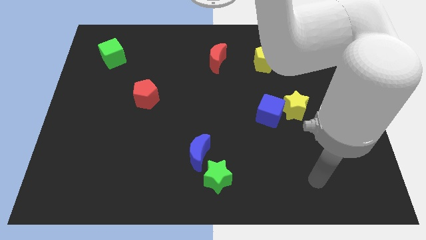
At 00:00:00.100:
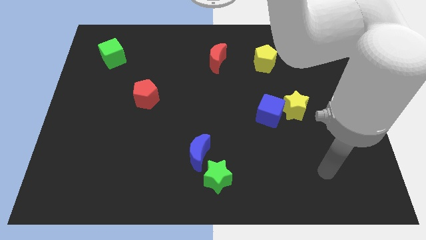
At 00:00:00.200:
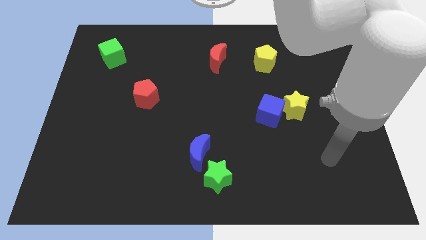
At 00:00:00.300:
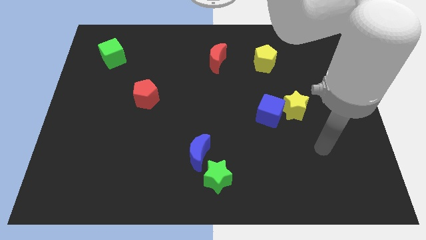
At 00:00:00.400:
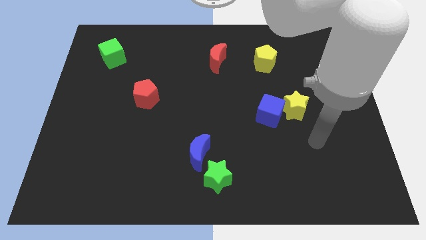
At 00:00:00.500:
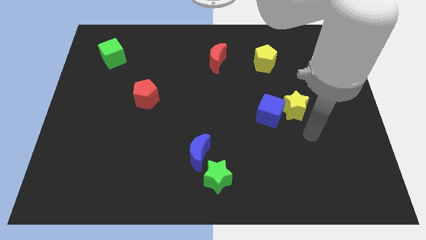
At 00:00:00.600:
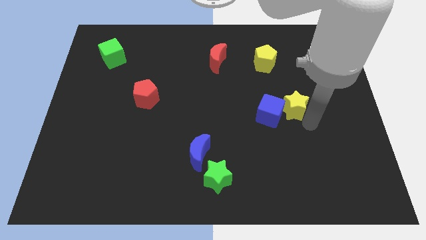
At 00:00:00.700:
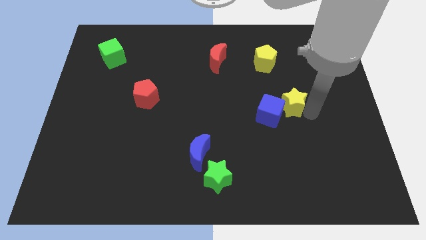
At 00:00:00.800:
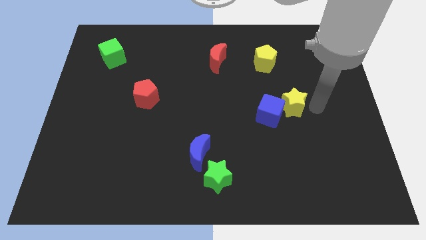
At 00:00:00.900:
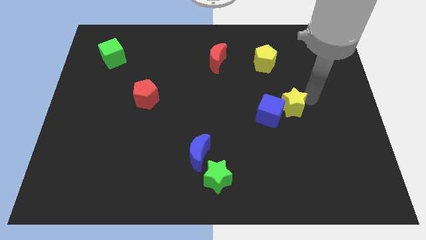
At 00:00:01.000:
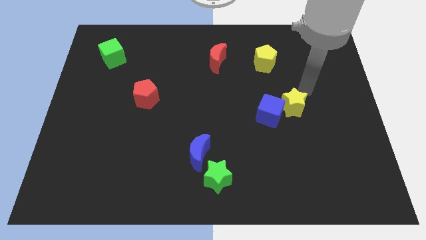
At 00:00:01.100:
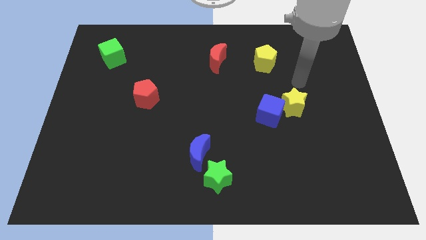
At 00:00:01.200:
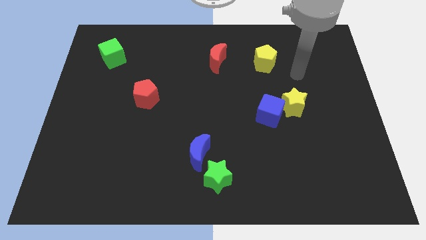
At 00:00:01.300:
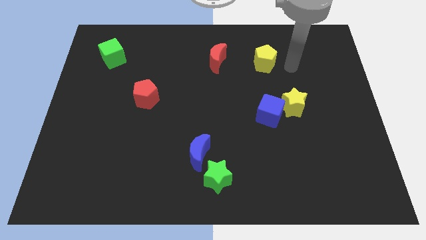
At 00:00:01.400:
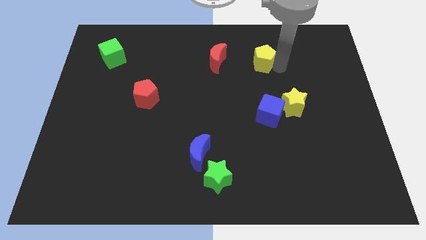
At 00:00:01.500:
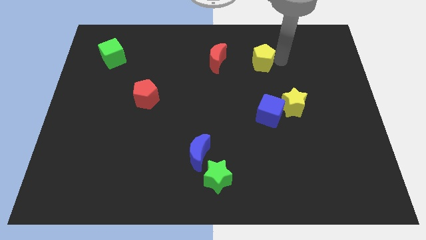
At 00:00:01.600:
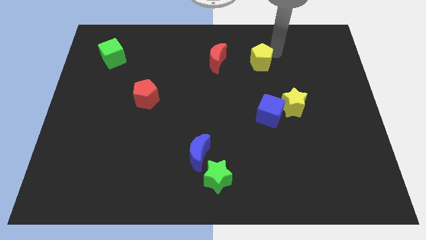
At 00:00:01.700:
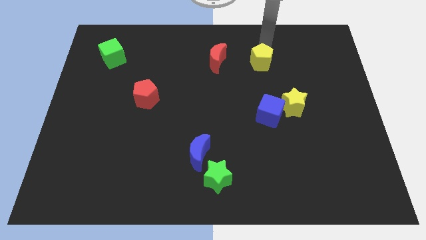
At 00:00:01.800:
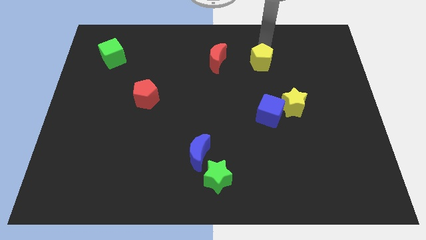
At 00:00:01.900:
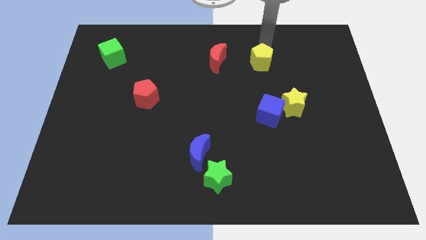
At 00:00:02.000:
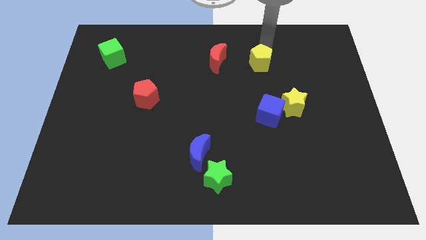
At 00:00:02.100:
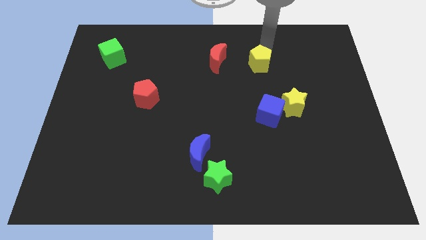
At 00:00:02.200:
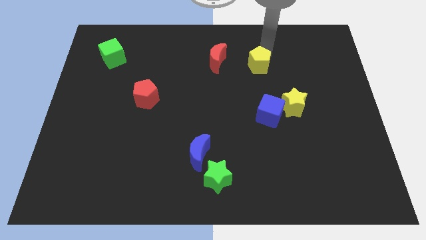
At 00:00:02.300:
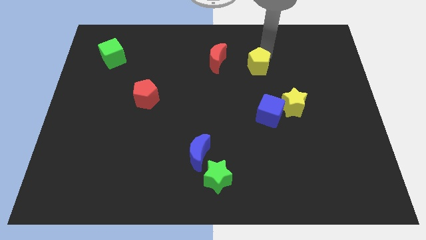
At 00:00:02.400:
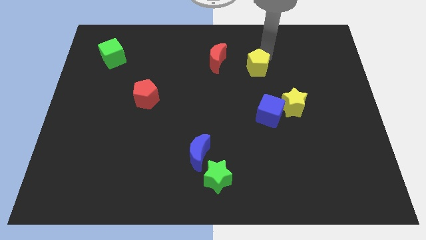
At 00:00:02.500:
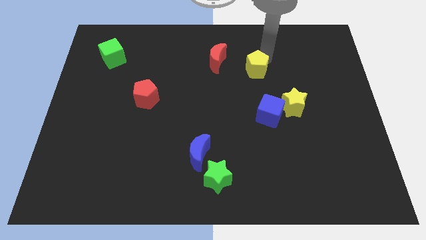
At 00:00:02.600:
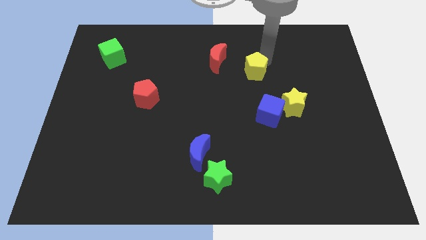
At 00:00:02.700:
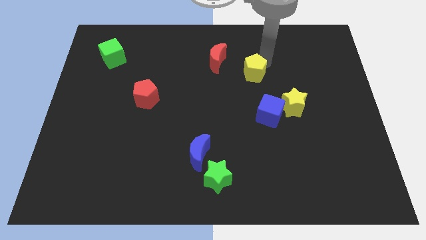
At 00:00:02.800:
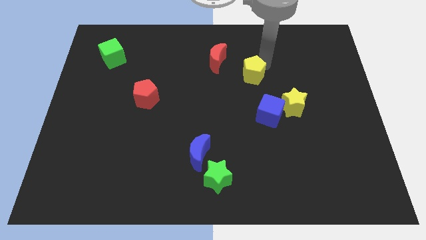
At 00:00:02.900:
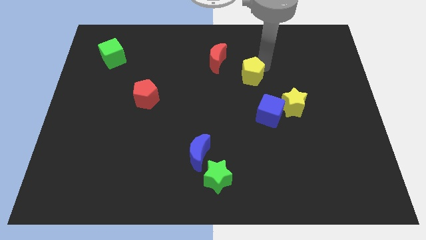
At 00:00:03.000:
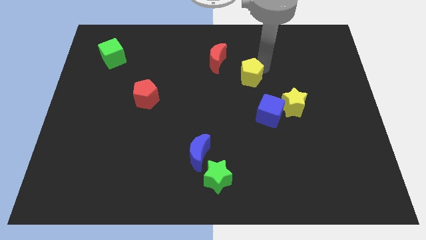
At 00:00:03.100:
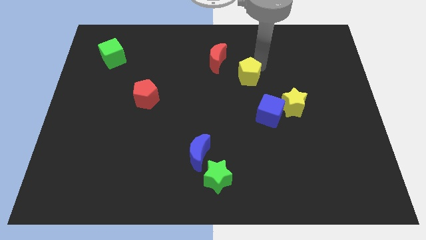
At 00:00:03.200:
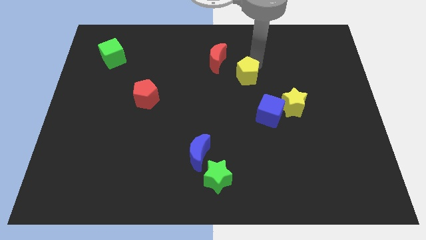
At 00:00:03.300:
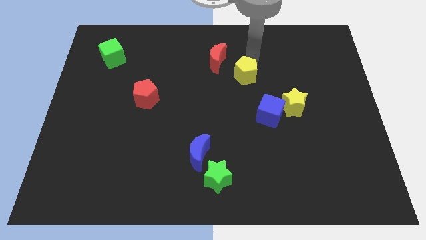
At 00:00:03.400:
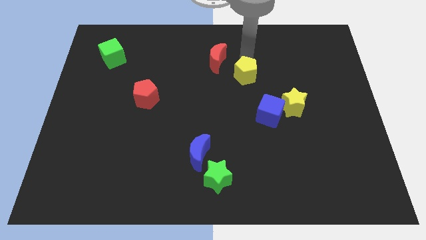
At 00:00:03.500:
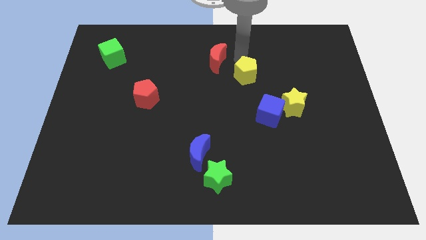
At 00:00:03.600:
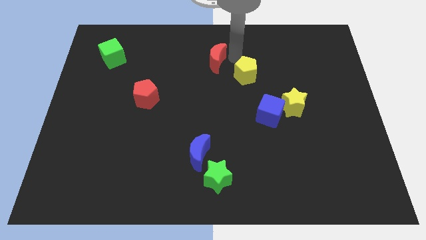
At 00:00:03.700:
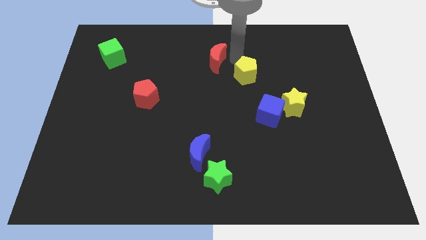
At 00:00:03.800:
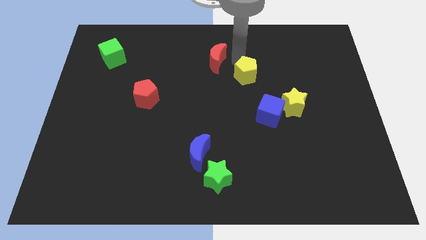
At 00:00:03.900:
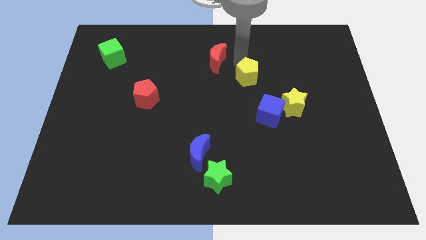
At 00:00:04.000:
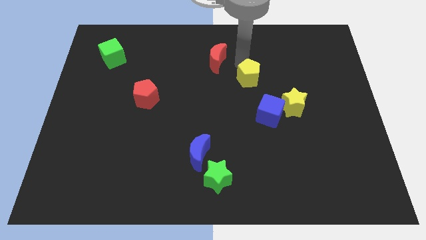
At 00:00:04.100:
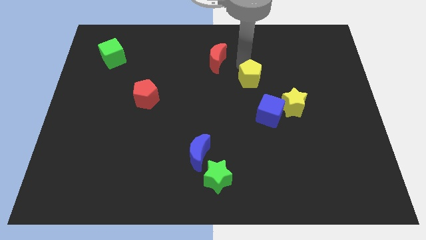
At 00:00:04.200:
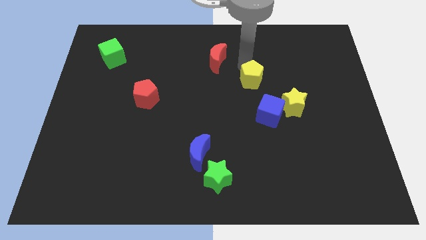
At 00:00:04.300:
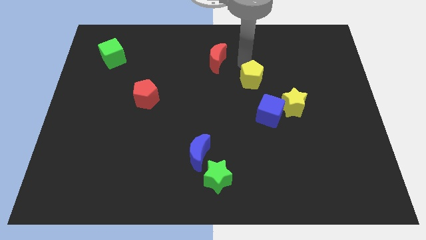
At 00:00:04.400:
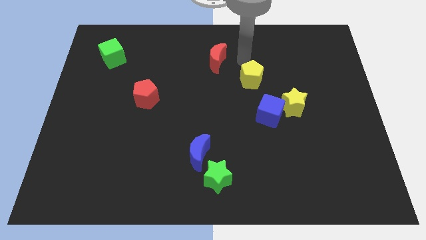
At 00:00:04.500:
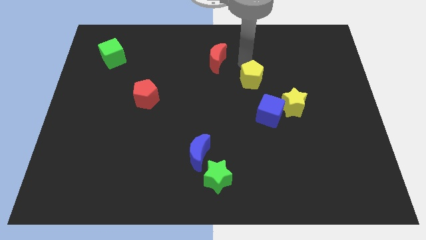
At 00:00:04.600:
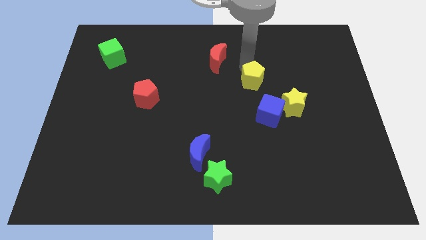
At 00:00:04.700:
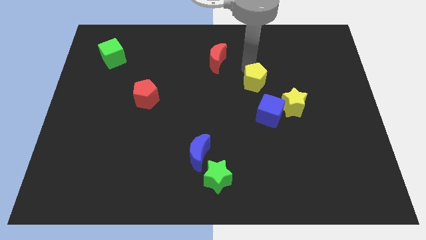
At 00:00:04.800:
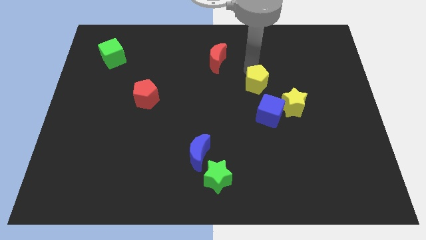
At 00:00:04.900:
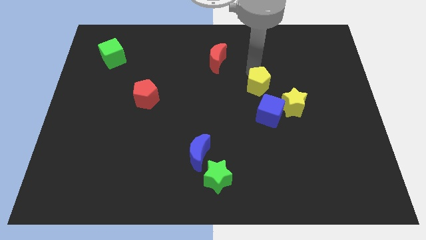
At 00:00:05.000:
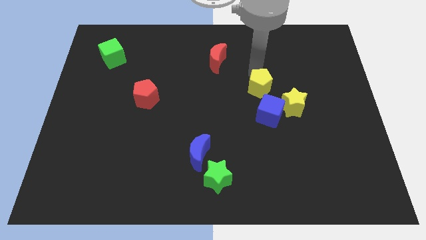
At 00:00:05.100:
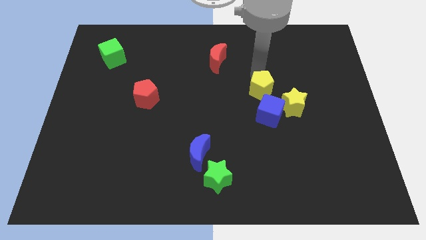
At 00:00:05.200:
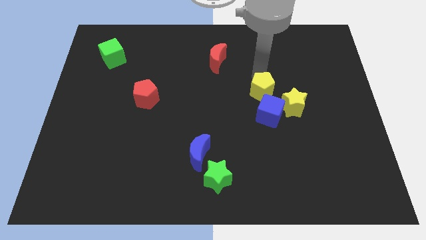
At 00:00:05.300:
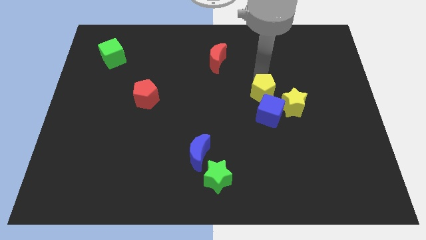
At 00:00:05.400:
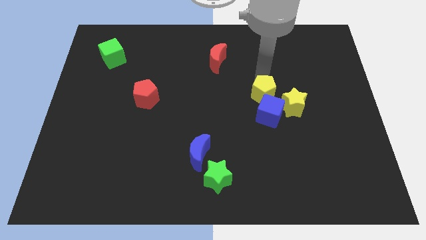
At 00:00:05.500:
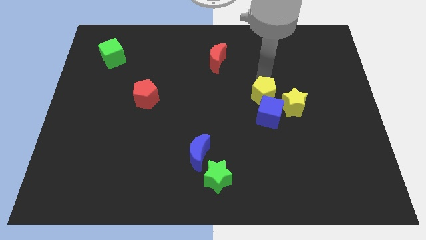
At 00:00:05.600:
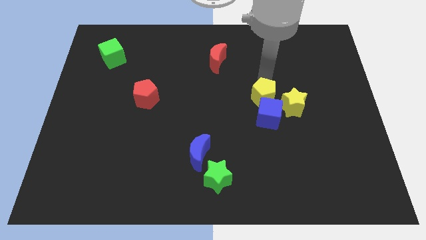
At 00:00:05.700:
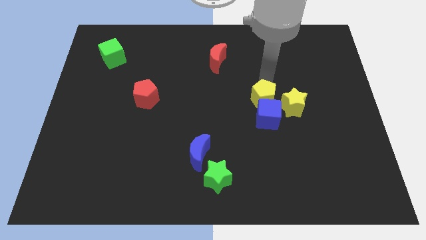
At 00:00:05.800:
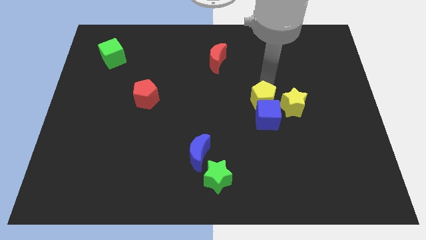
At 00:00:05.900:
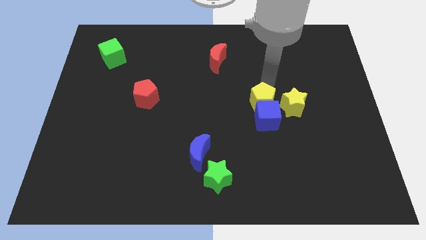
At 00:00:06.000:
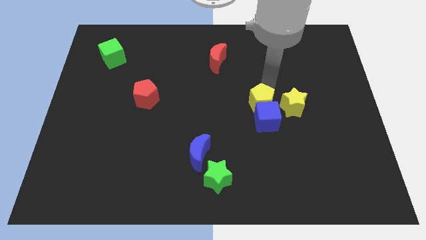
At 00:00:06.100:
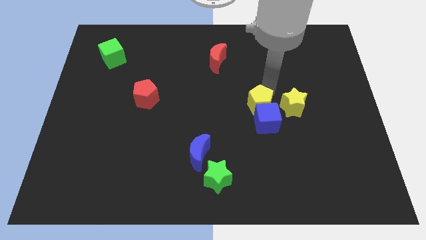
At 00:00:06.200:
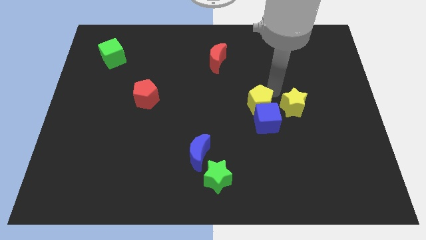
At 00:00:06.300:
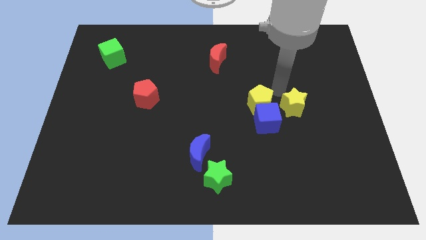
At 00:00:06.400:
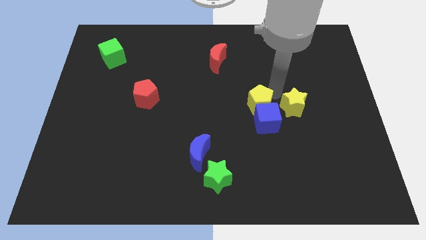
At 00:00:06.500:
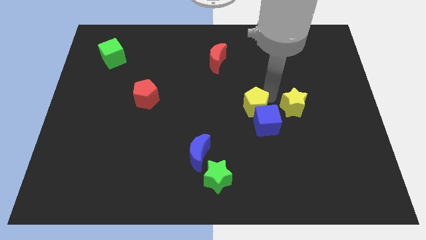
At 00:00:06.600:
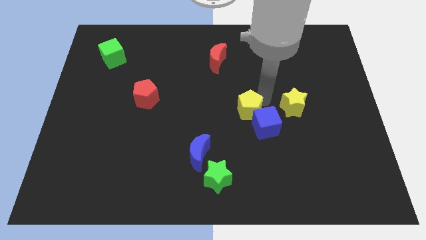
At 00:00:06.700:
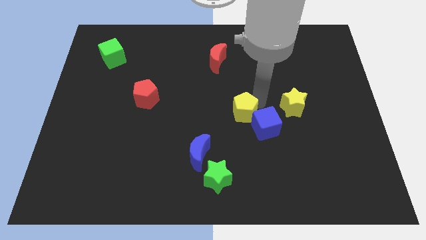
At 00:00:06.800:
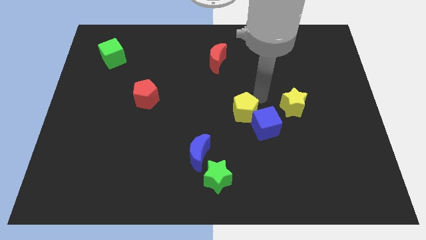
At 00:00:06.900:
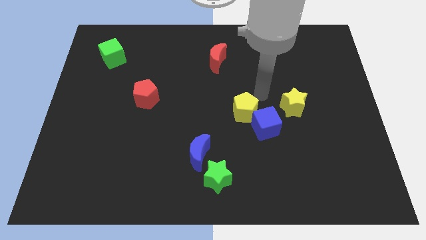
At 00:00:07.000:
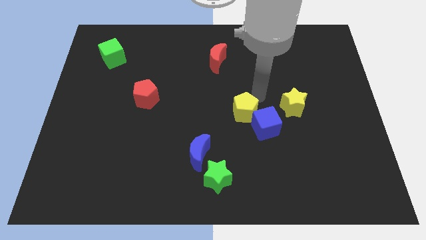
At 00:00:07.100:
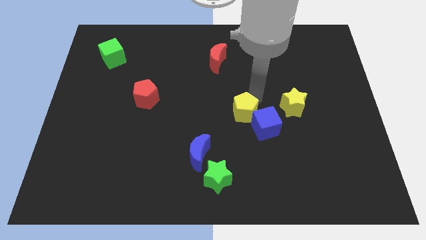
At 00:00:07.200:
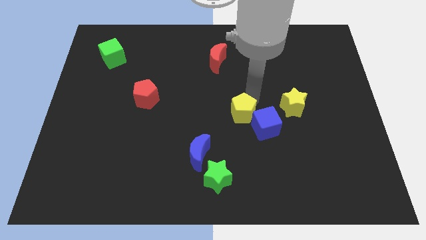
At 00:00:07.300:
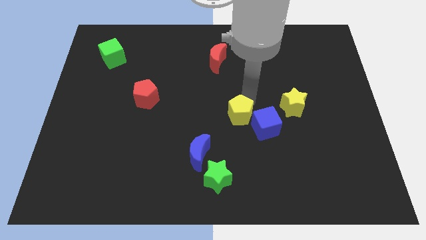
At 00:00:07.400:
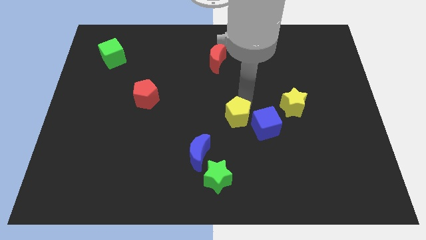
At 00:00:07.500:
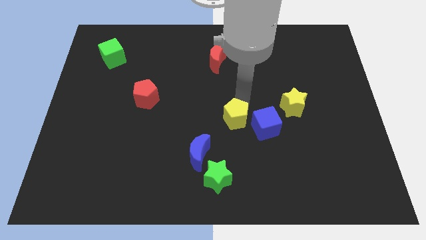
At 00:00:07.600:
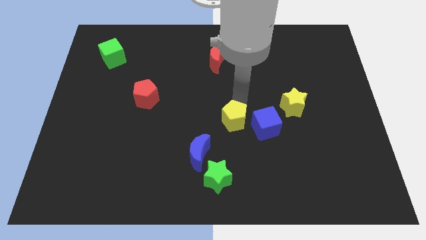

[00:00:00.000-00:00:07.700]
slide the yellow pentagon to the top side of the green star
